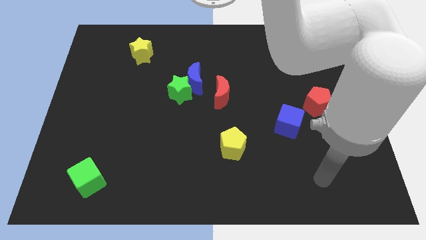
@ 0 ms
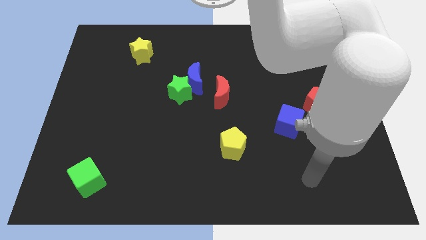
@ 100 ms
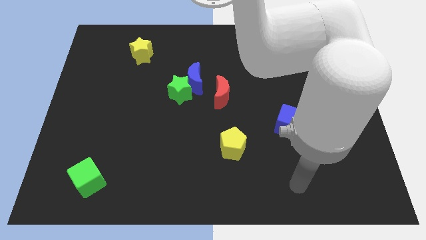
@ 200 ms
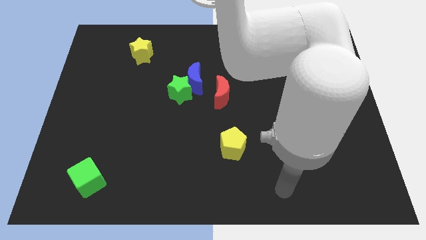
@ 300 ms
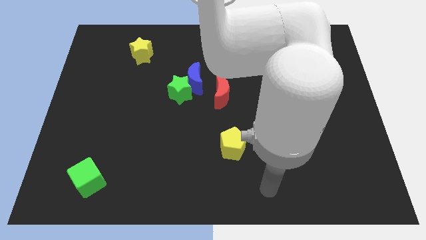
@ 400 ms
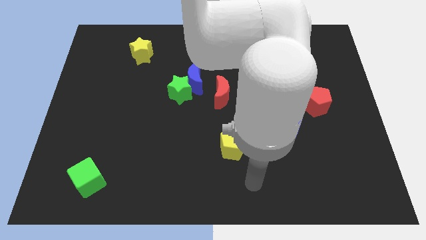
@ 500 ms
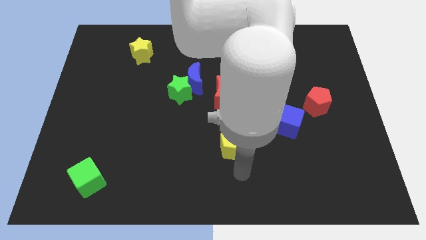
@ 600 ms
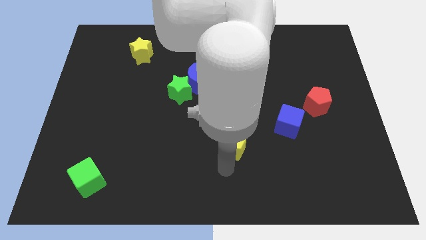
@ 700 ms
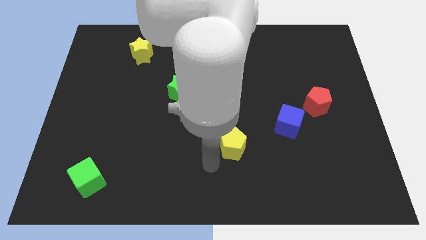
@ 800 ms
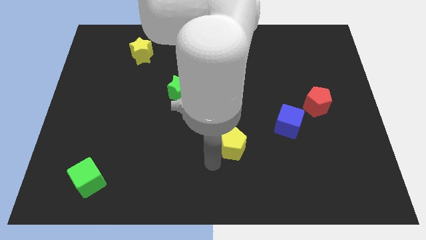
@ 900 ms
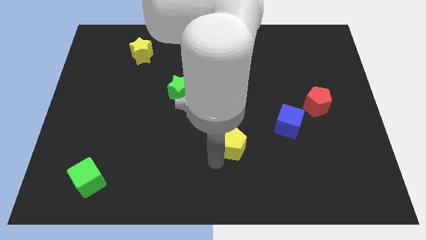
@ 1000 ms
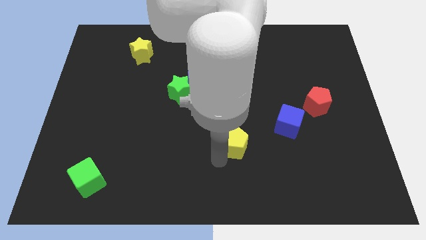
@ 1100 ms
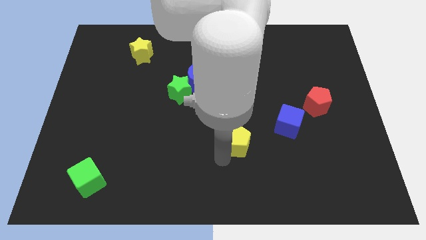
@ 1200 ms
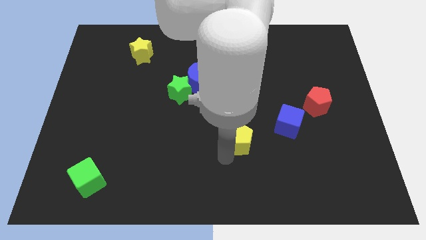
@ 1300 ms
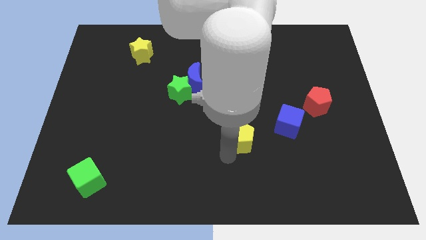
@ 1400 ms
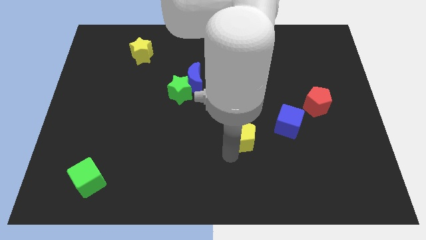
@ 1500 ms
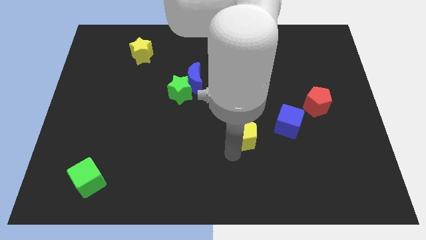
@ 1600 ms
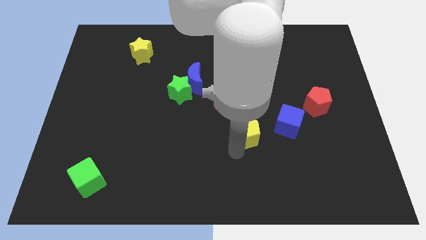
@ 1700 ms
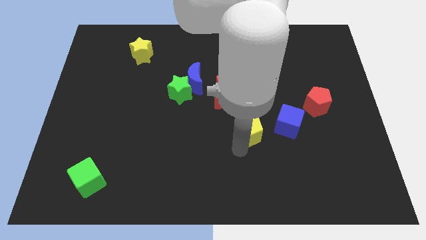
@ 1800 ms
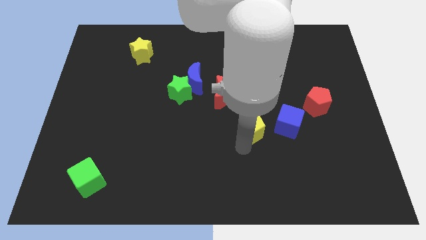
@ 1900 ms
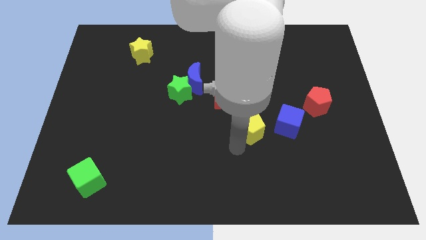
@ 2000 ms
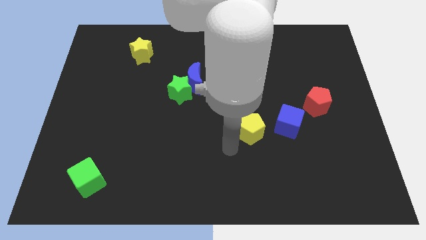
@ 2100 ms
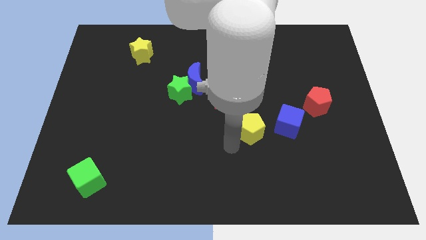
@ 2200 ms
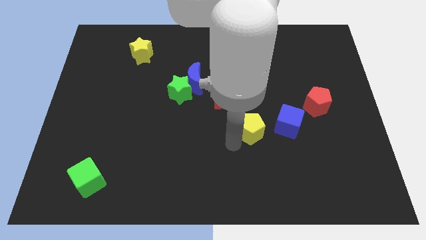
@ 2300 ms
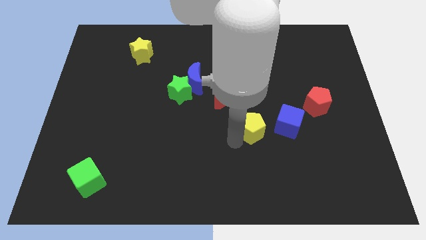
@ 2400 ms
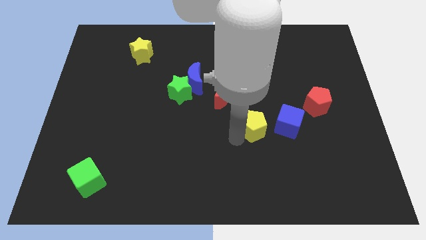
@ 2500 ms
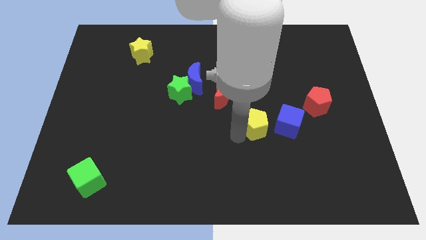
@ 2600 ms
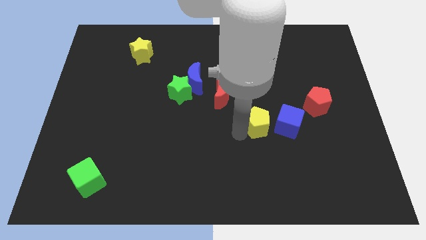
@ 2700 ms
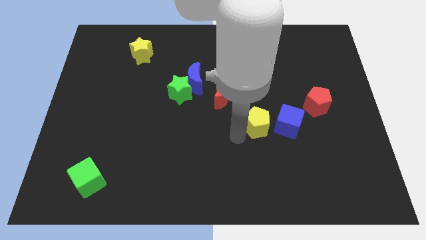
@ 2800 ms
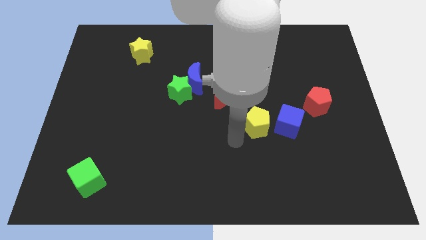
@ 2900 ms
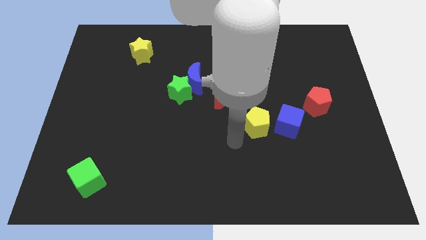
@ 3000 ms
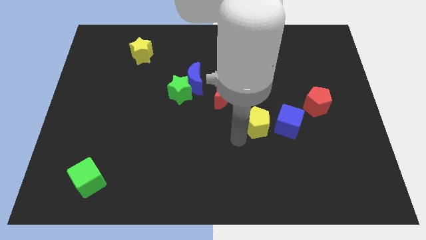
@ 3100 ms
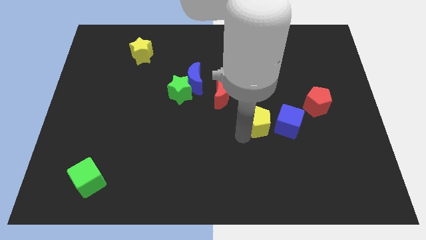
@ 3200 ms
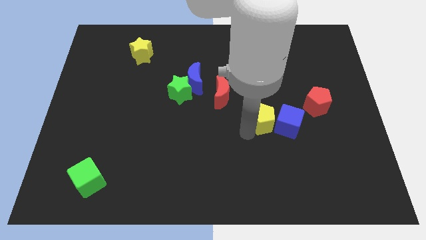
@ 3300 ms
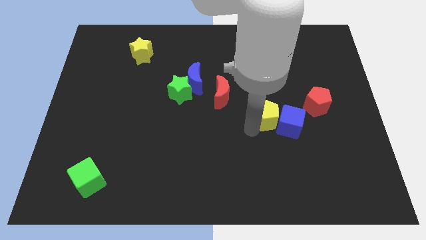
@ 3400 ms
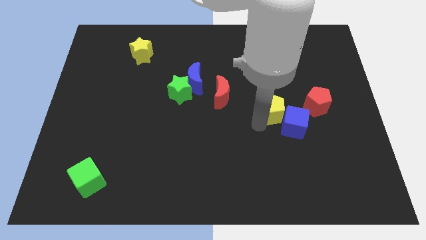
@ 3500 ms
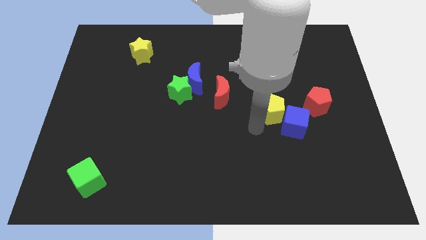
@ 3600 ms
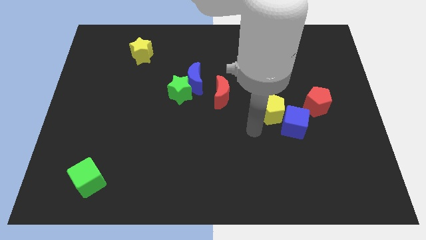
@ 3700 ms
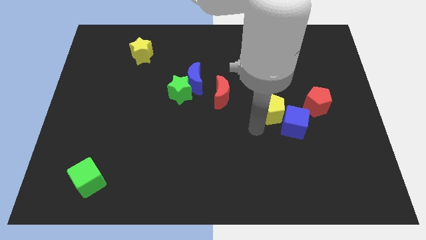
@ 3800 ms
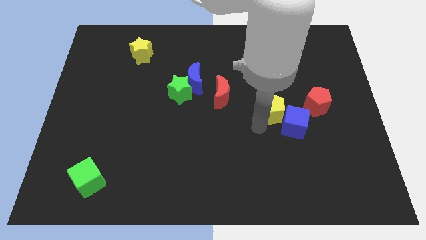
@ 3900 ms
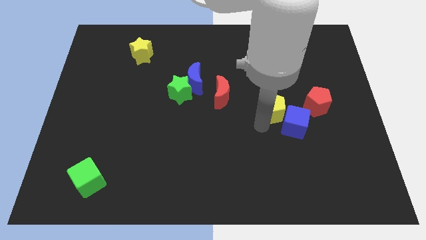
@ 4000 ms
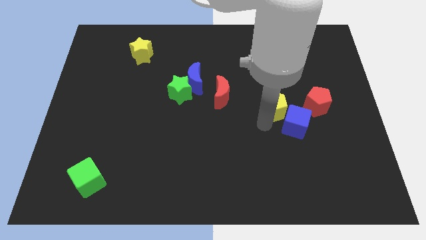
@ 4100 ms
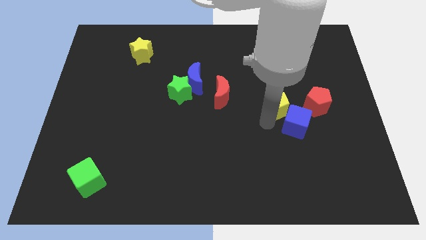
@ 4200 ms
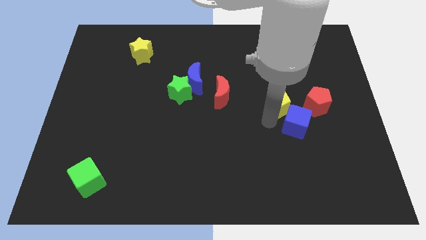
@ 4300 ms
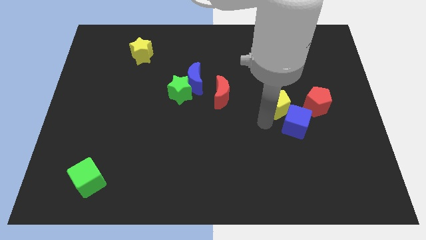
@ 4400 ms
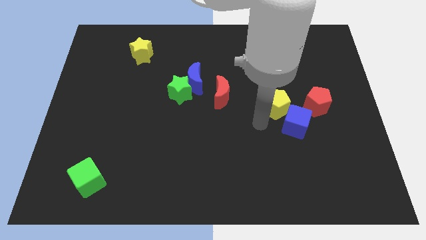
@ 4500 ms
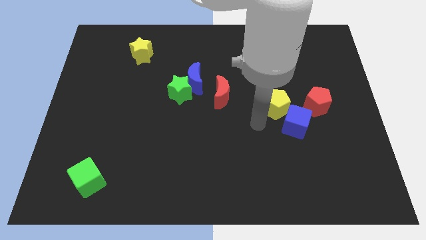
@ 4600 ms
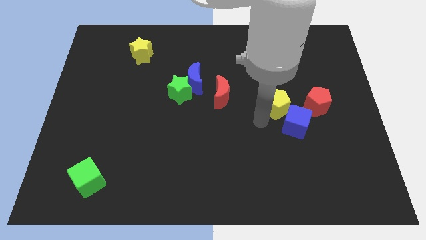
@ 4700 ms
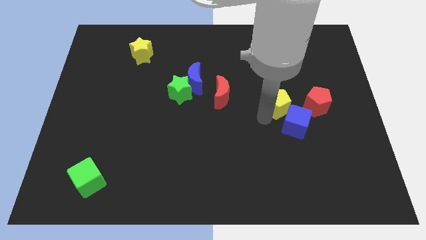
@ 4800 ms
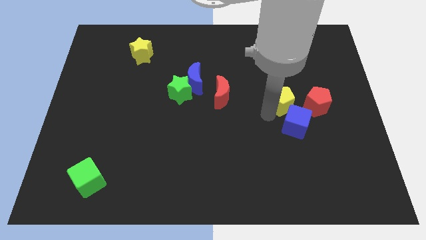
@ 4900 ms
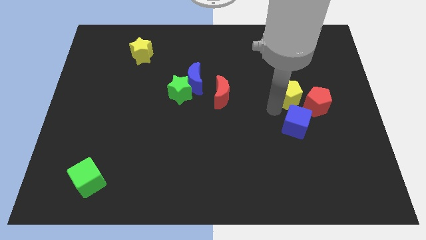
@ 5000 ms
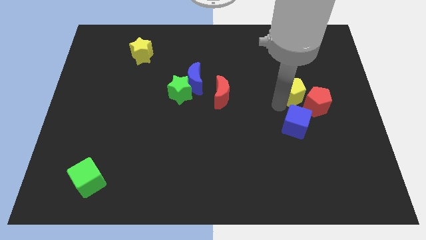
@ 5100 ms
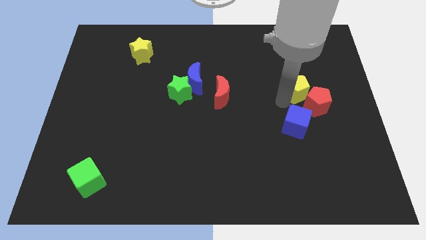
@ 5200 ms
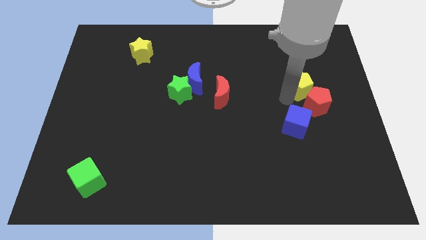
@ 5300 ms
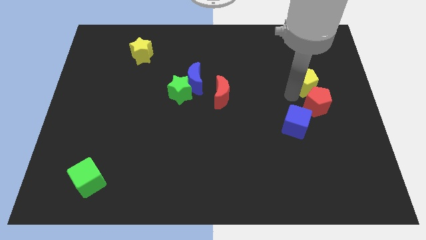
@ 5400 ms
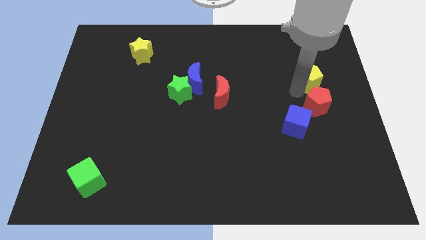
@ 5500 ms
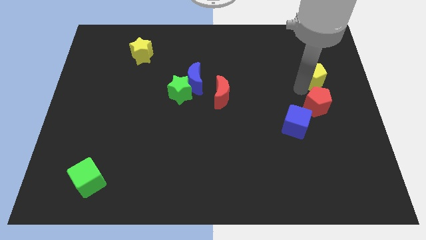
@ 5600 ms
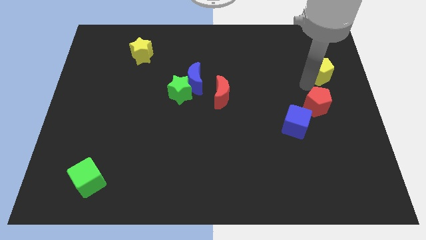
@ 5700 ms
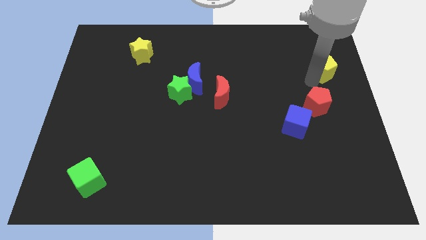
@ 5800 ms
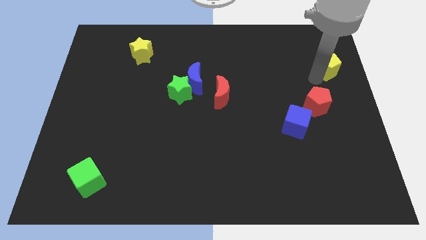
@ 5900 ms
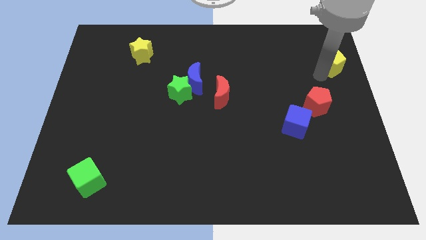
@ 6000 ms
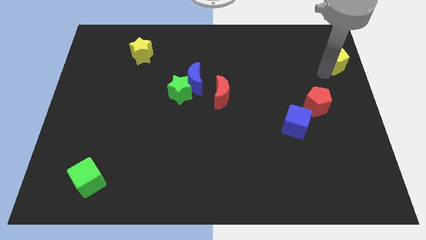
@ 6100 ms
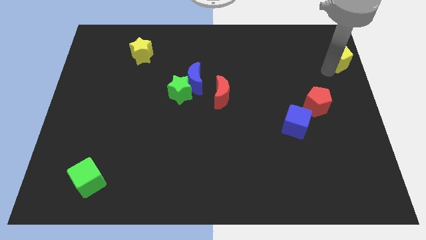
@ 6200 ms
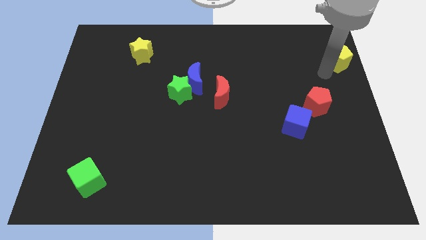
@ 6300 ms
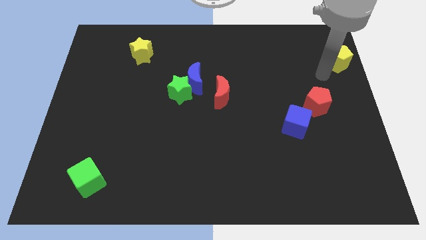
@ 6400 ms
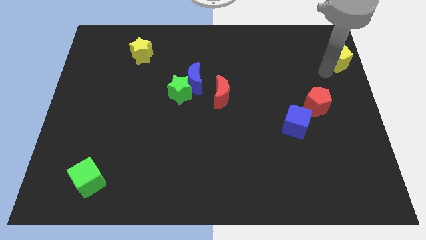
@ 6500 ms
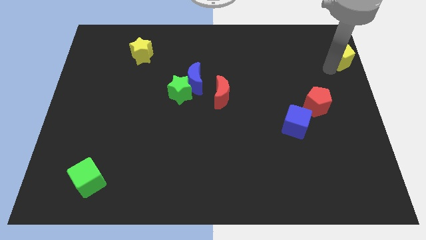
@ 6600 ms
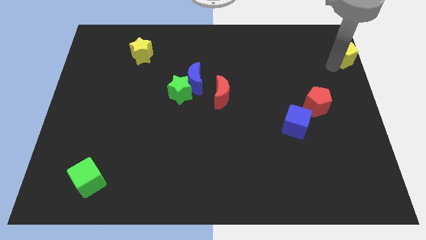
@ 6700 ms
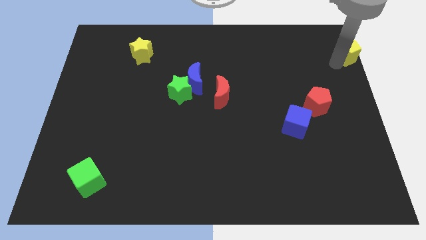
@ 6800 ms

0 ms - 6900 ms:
slide the yellow pentagon to the top right of the board

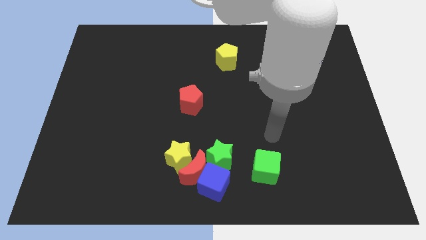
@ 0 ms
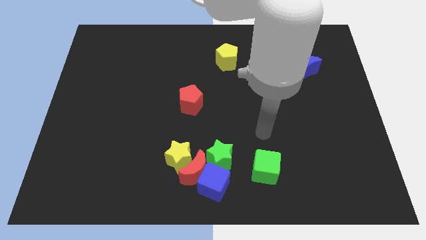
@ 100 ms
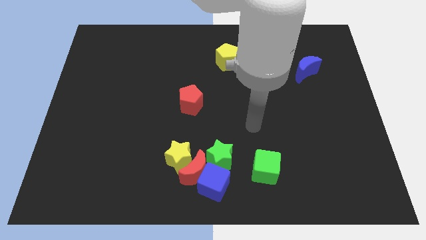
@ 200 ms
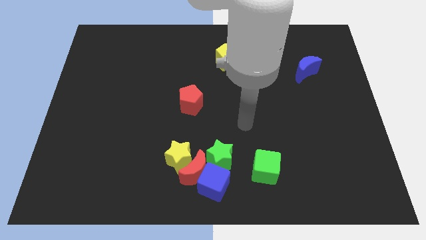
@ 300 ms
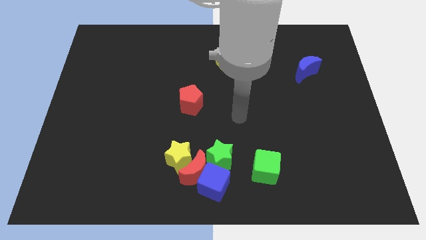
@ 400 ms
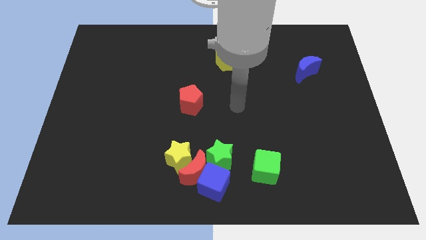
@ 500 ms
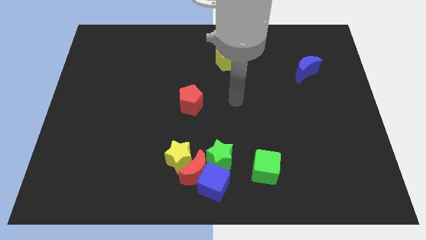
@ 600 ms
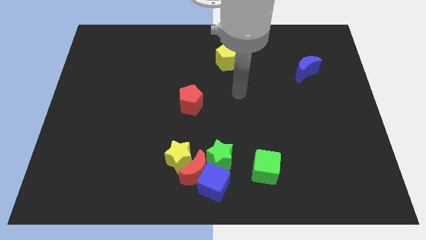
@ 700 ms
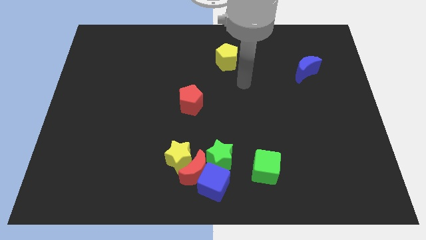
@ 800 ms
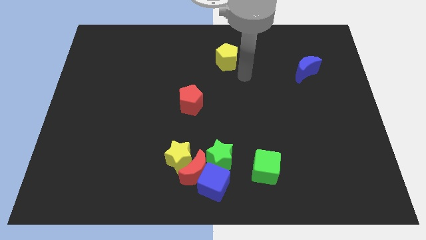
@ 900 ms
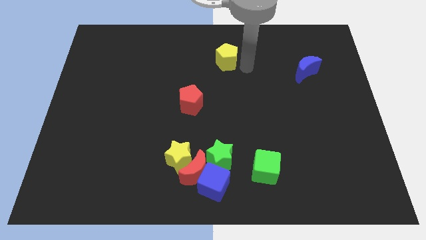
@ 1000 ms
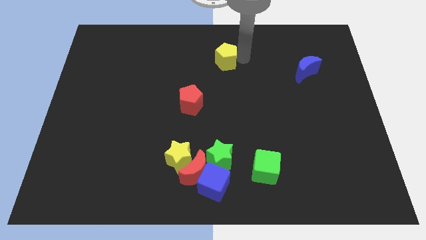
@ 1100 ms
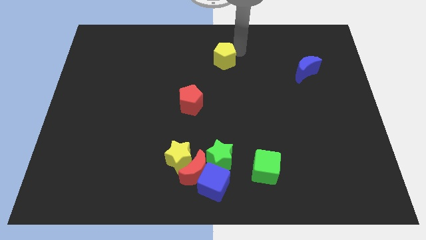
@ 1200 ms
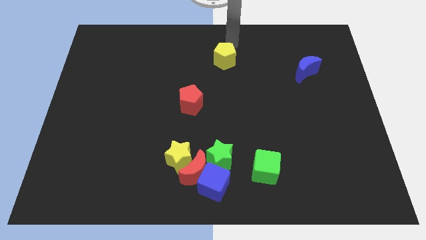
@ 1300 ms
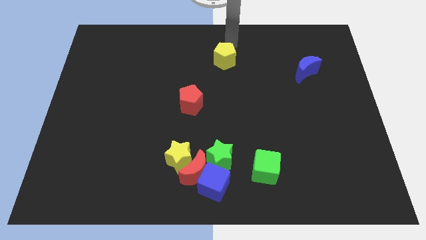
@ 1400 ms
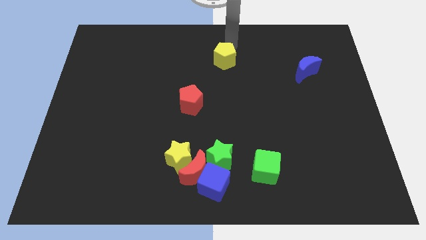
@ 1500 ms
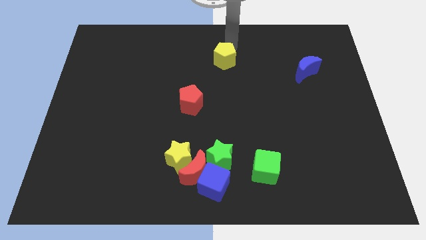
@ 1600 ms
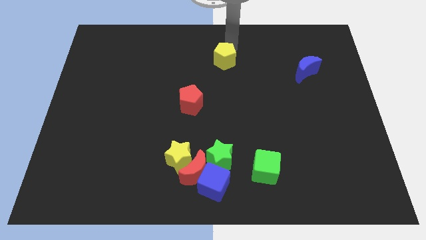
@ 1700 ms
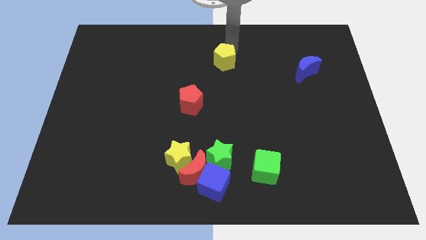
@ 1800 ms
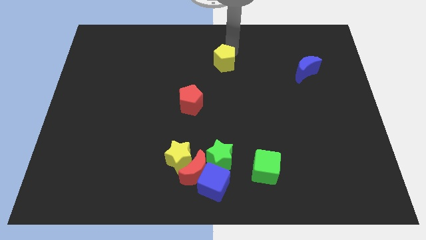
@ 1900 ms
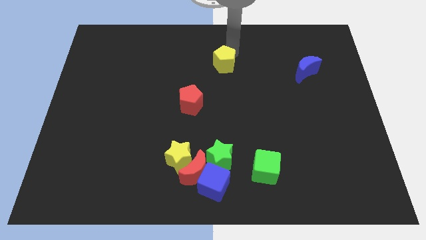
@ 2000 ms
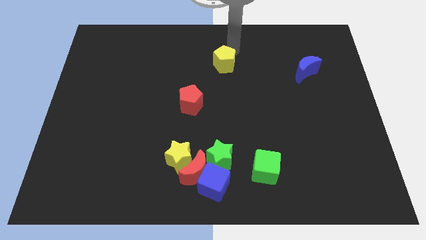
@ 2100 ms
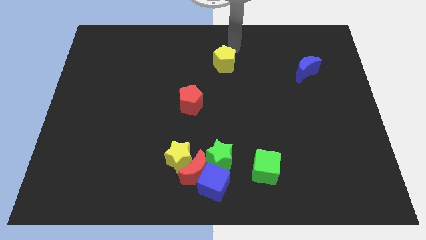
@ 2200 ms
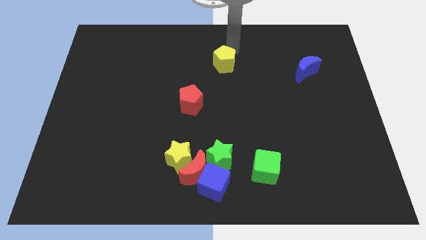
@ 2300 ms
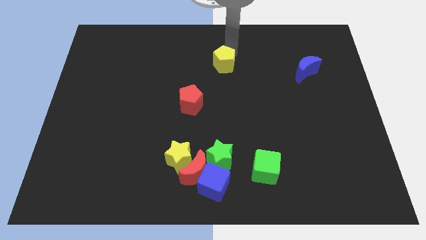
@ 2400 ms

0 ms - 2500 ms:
move the yellow pentagon to the center
